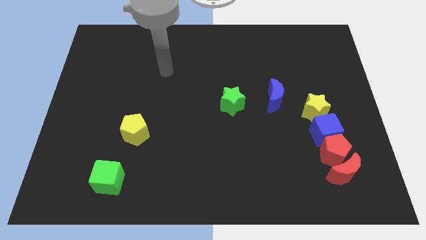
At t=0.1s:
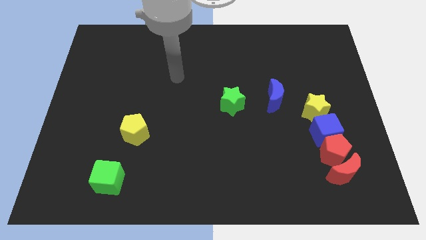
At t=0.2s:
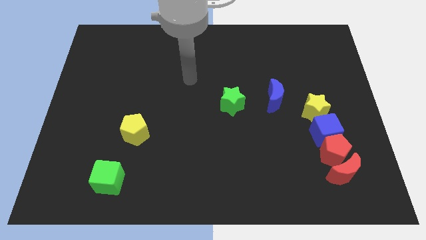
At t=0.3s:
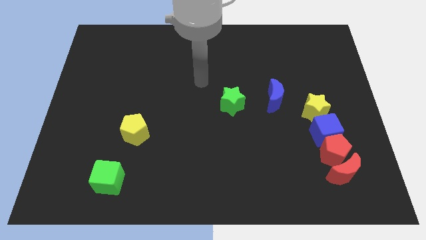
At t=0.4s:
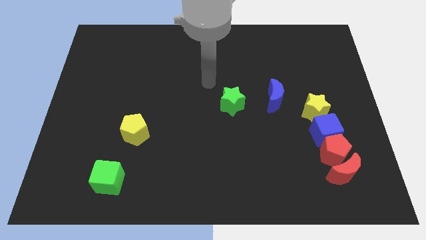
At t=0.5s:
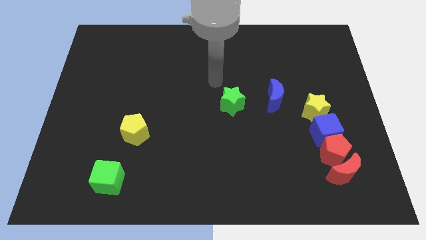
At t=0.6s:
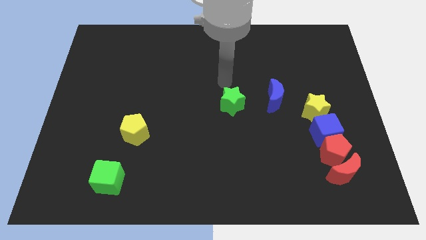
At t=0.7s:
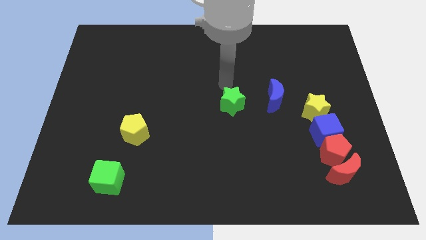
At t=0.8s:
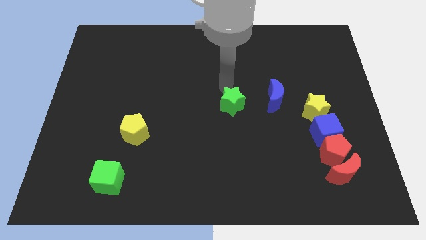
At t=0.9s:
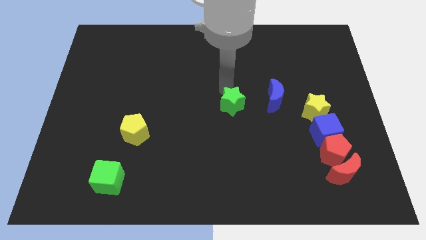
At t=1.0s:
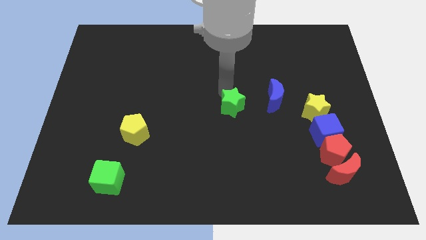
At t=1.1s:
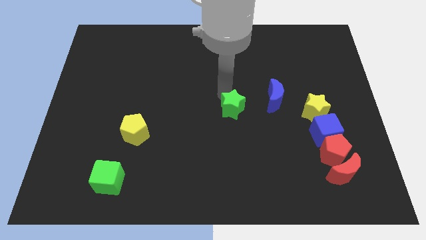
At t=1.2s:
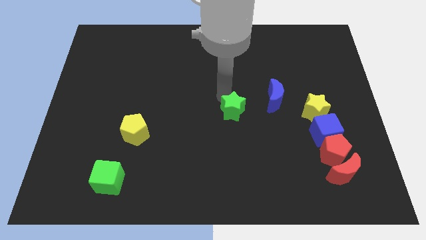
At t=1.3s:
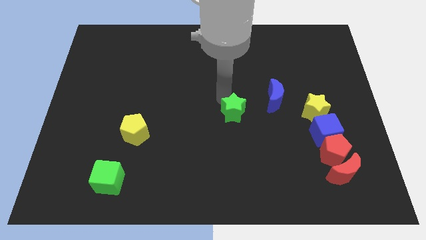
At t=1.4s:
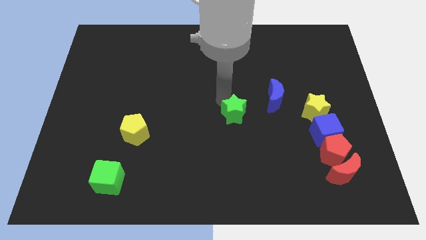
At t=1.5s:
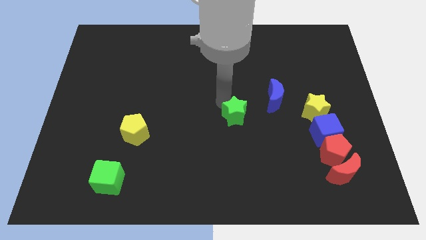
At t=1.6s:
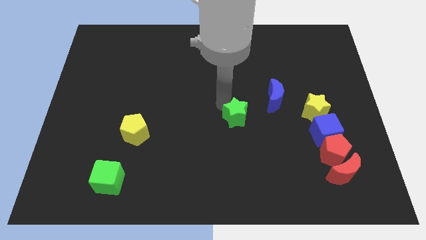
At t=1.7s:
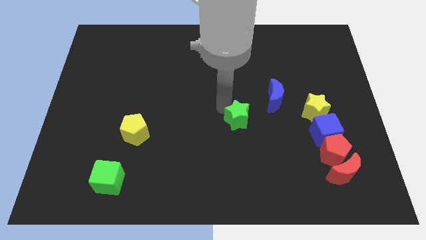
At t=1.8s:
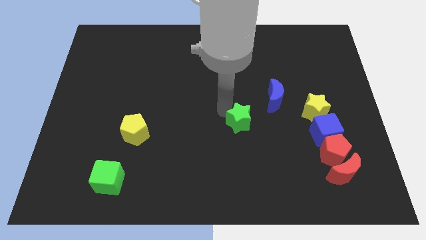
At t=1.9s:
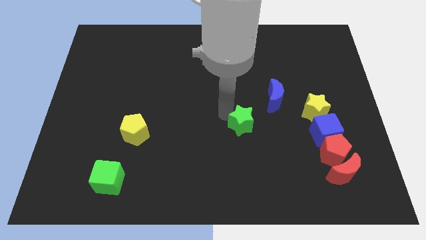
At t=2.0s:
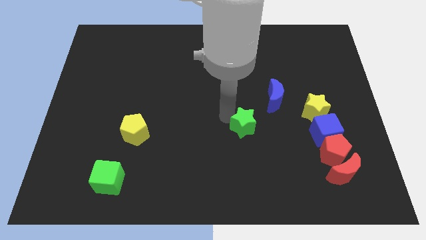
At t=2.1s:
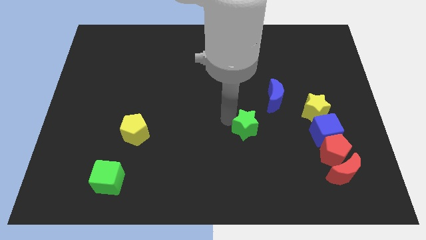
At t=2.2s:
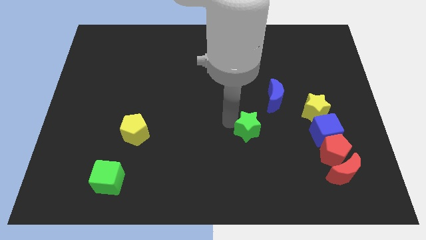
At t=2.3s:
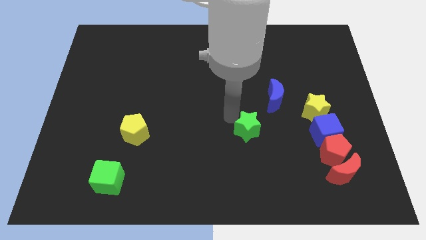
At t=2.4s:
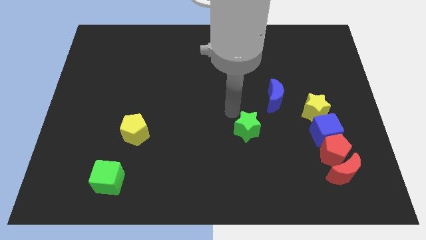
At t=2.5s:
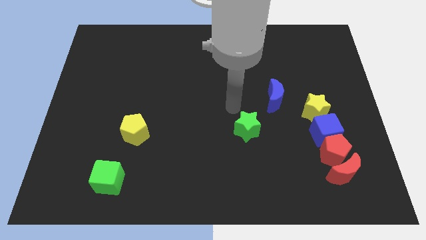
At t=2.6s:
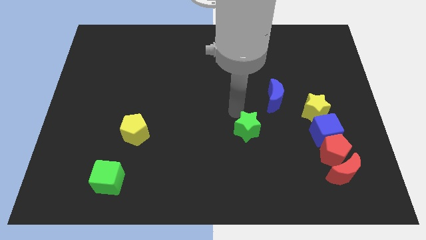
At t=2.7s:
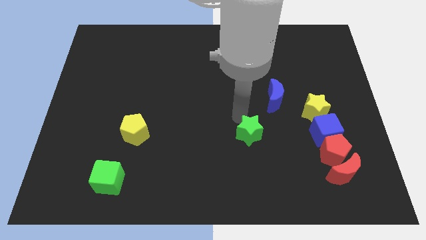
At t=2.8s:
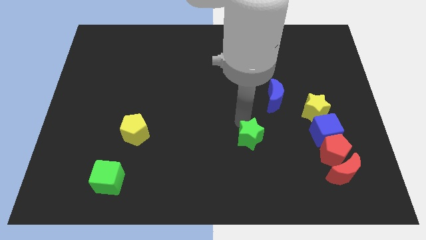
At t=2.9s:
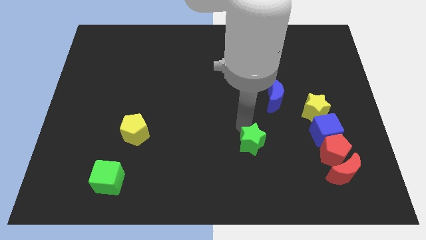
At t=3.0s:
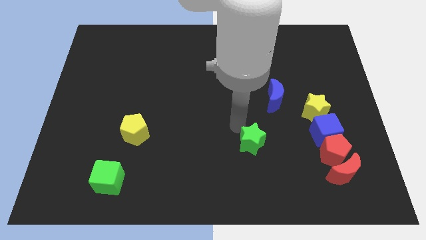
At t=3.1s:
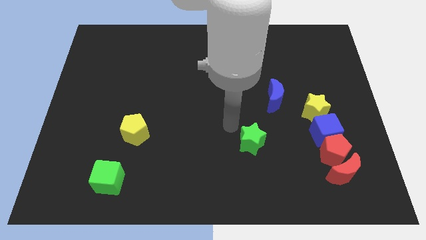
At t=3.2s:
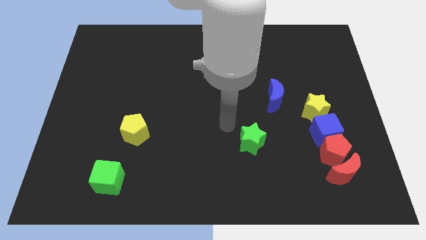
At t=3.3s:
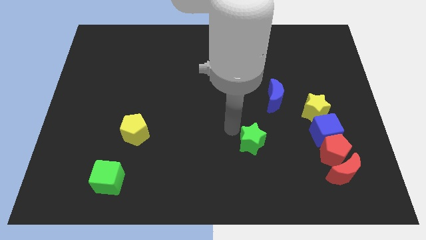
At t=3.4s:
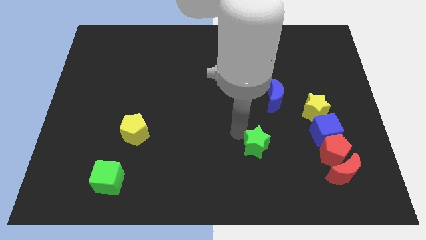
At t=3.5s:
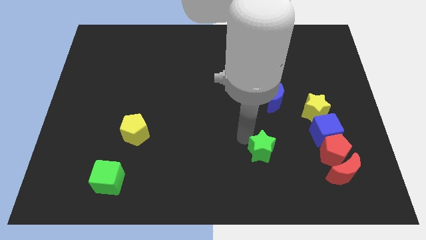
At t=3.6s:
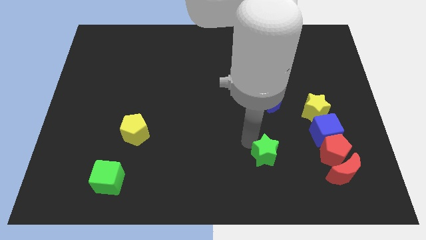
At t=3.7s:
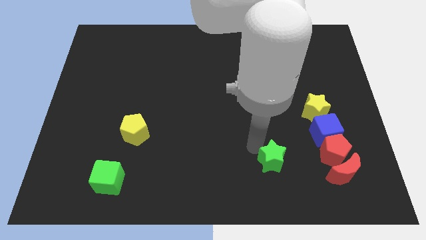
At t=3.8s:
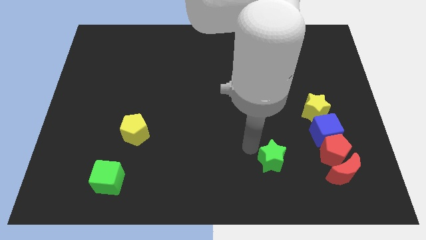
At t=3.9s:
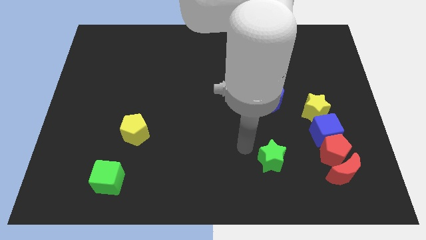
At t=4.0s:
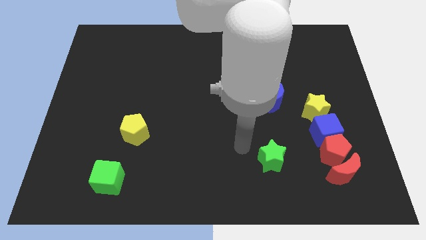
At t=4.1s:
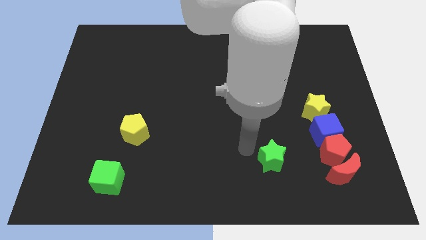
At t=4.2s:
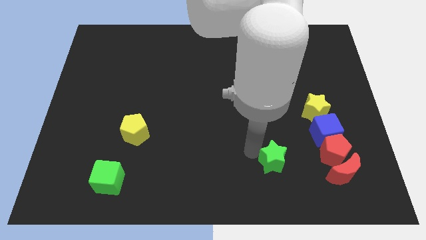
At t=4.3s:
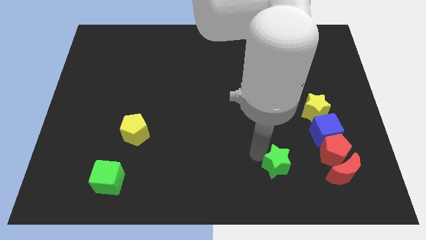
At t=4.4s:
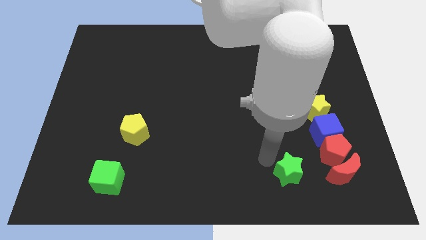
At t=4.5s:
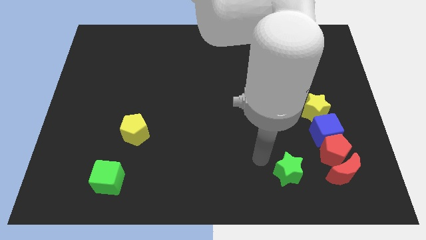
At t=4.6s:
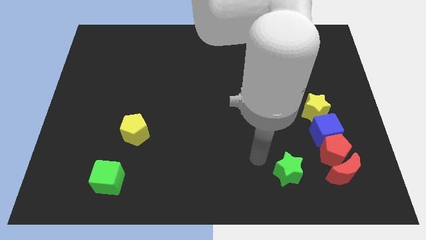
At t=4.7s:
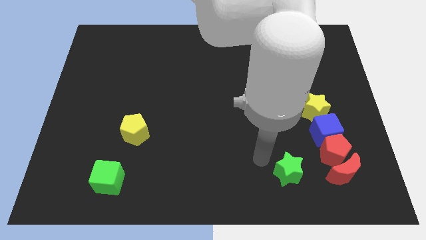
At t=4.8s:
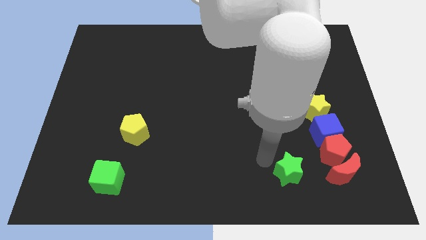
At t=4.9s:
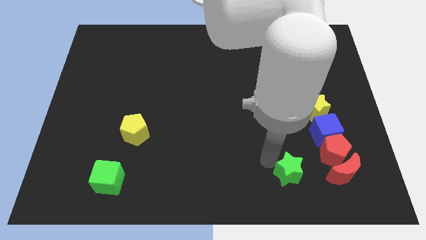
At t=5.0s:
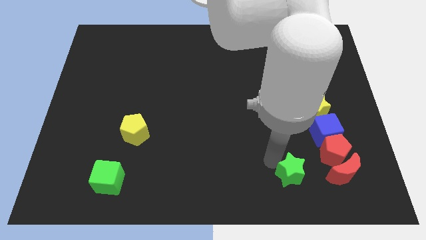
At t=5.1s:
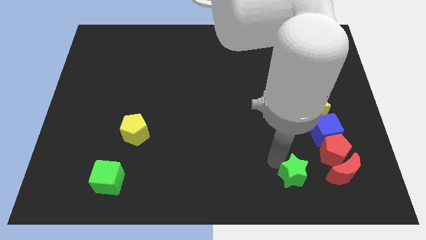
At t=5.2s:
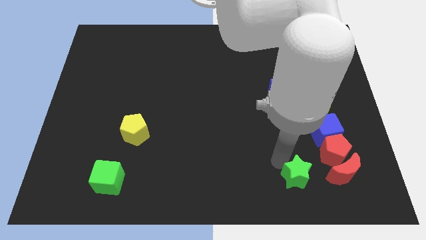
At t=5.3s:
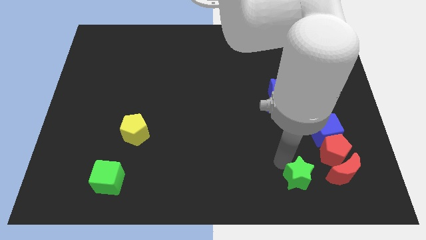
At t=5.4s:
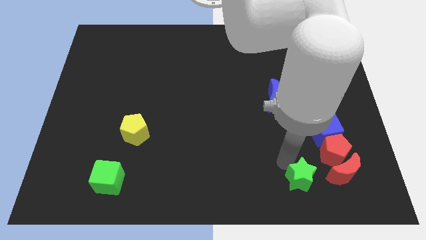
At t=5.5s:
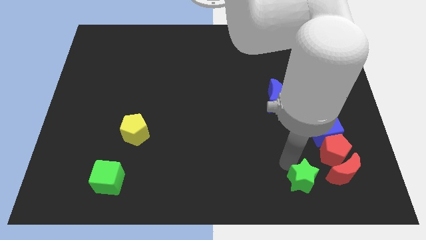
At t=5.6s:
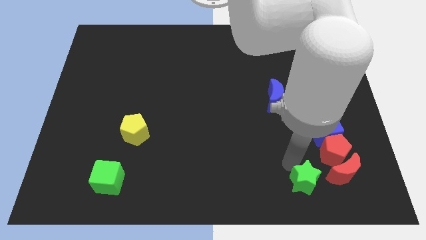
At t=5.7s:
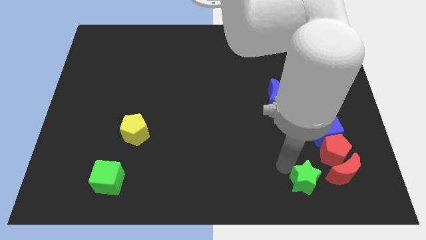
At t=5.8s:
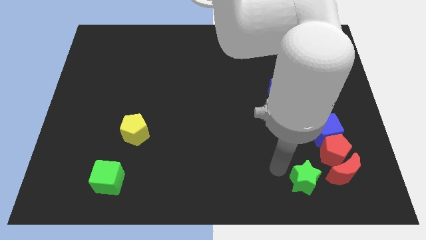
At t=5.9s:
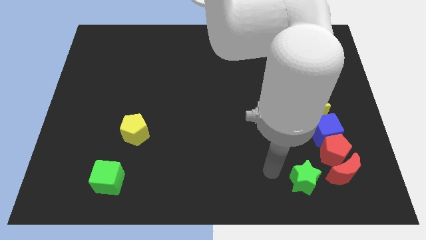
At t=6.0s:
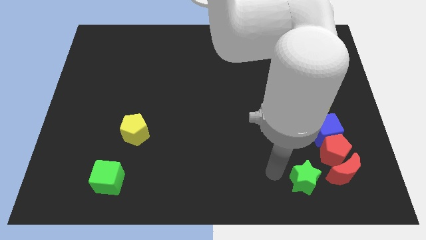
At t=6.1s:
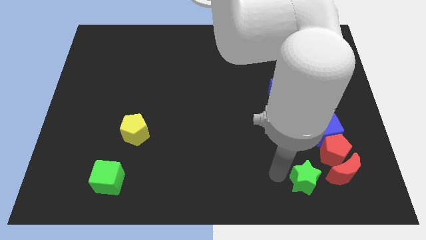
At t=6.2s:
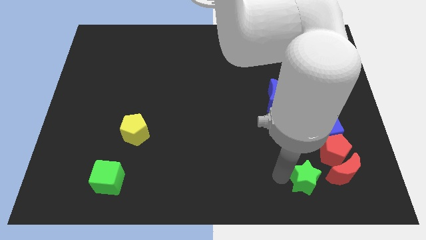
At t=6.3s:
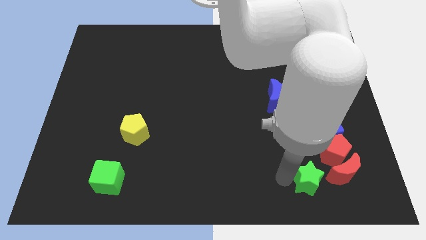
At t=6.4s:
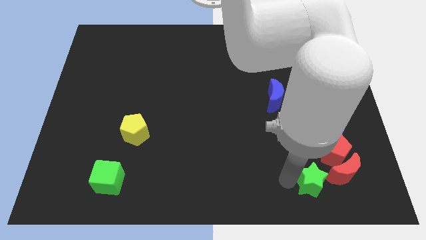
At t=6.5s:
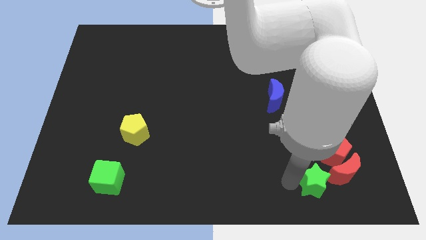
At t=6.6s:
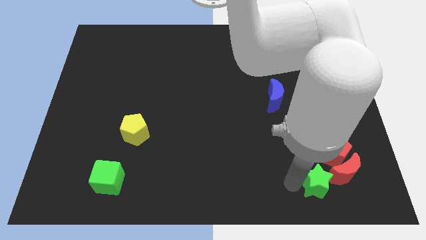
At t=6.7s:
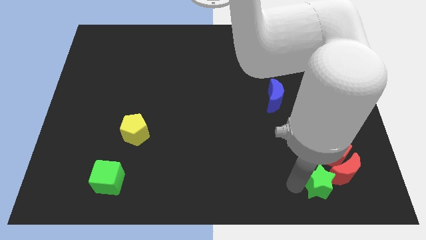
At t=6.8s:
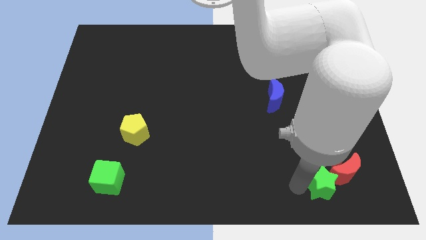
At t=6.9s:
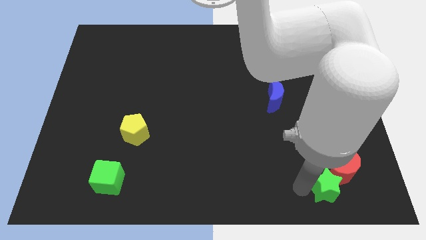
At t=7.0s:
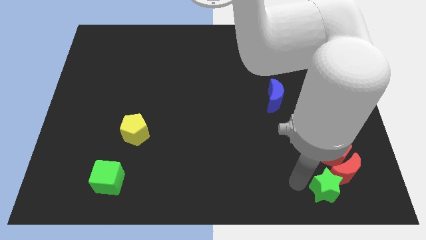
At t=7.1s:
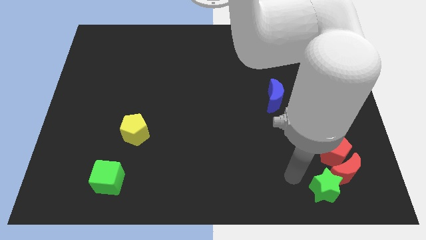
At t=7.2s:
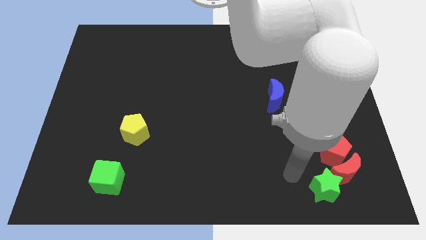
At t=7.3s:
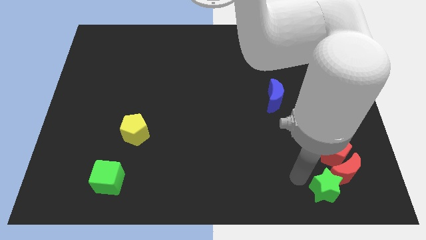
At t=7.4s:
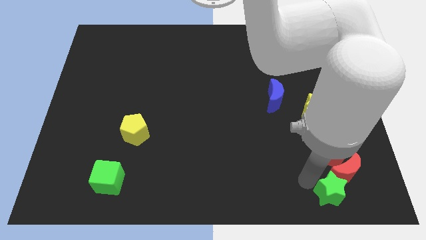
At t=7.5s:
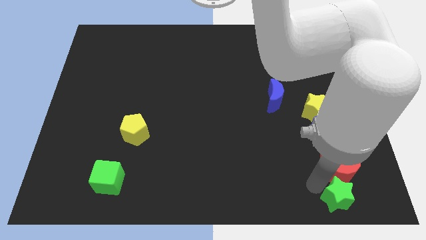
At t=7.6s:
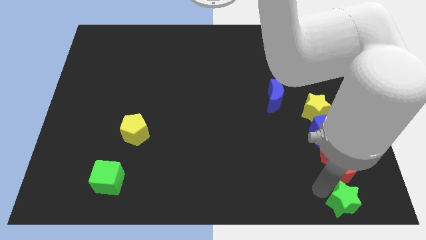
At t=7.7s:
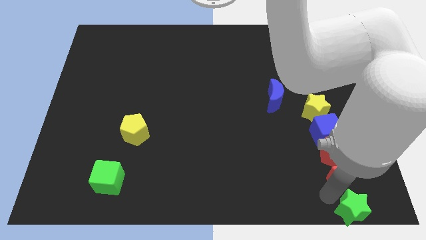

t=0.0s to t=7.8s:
push the green star to the bottom right corner
